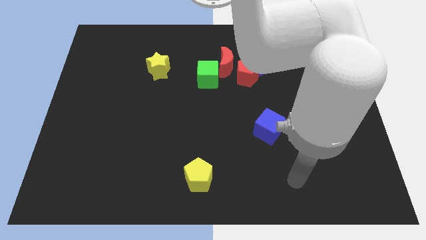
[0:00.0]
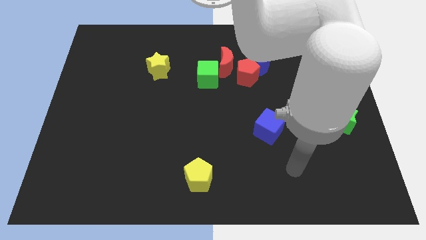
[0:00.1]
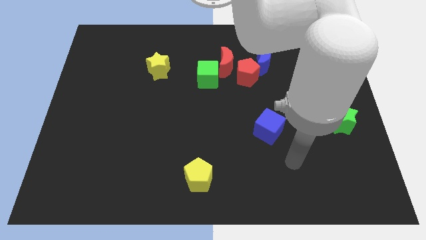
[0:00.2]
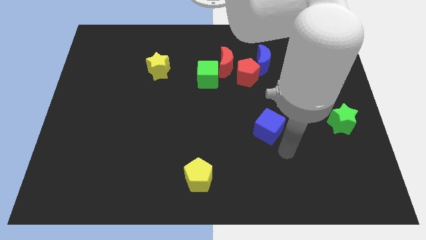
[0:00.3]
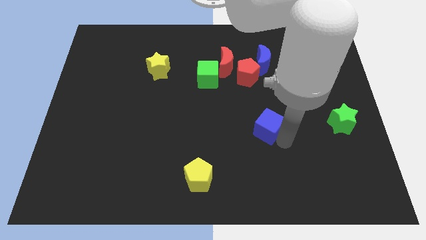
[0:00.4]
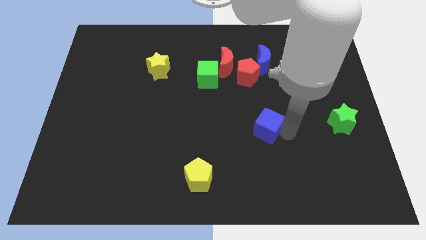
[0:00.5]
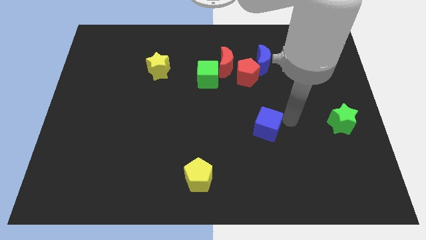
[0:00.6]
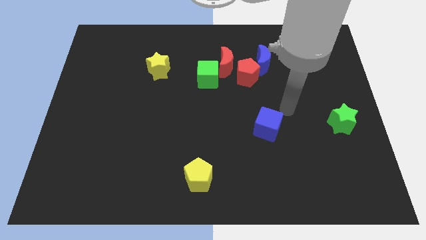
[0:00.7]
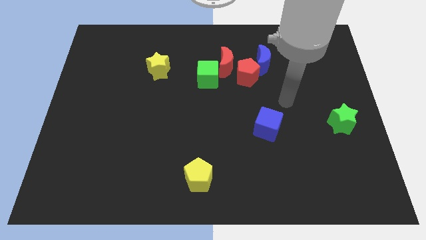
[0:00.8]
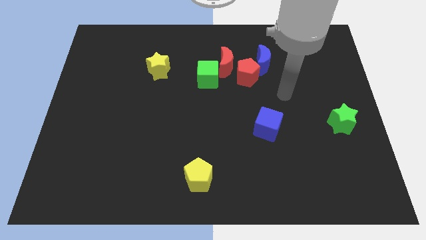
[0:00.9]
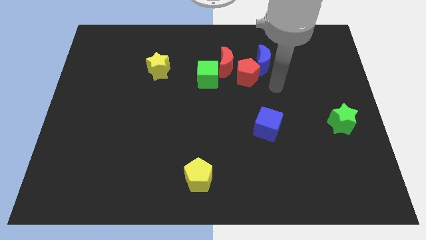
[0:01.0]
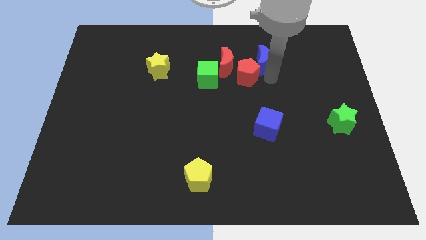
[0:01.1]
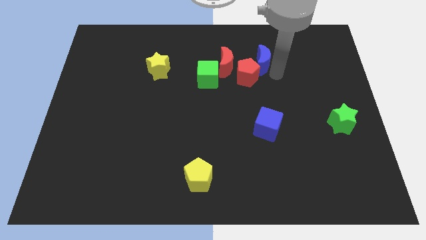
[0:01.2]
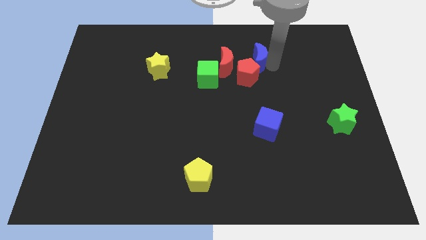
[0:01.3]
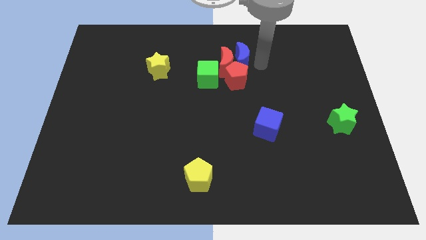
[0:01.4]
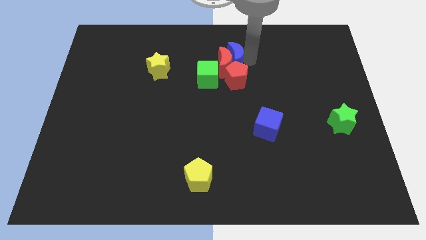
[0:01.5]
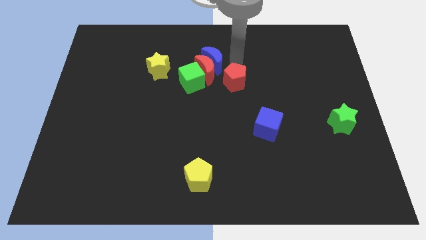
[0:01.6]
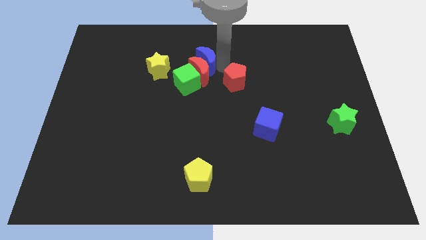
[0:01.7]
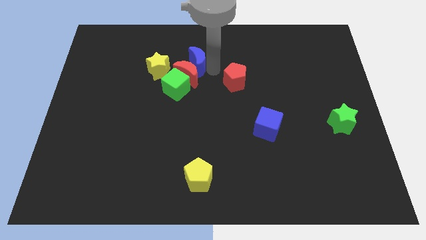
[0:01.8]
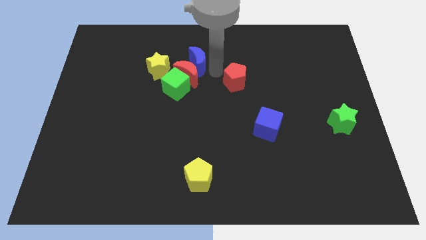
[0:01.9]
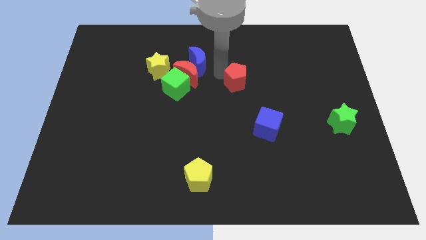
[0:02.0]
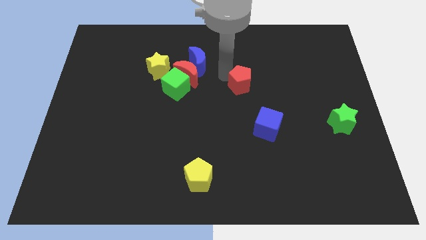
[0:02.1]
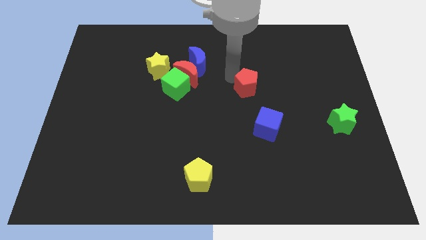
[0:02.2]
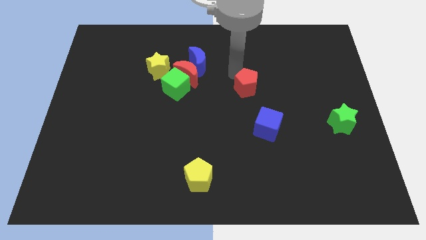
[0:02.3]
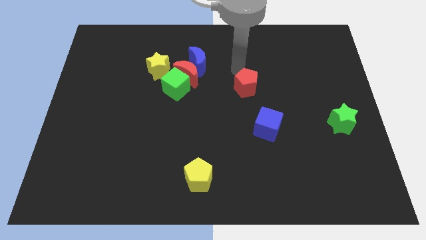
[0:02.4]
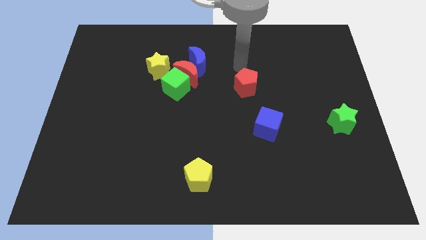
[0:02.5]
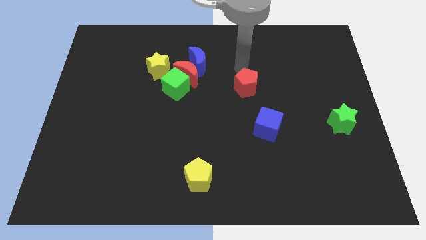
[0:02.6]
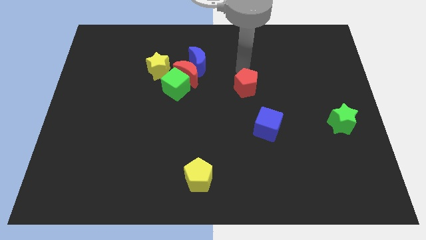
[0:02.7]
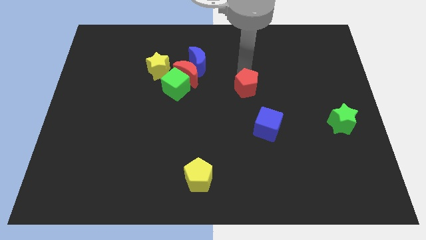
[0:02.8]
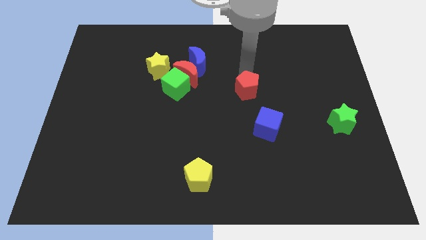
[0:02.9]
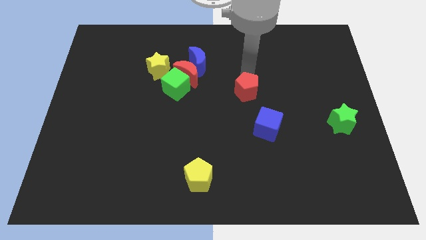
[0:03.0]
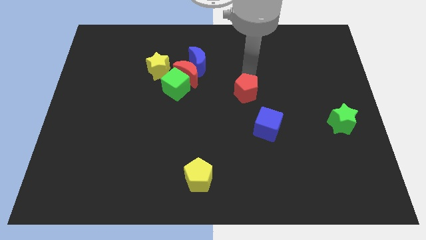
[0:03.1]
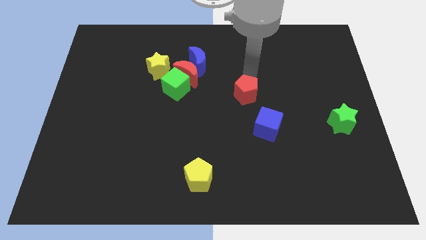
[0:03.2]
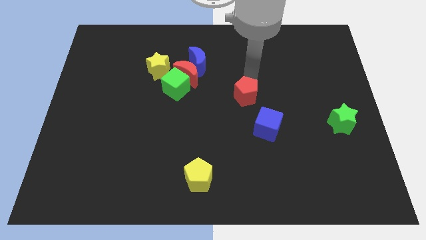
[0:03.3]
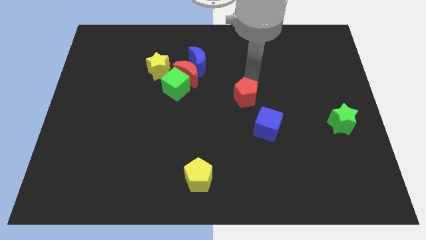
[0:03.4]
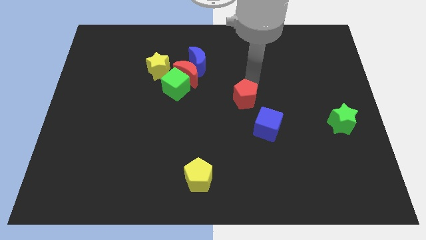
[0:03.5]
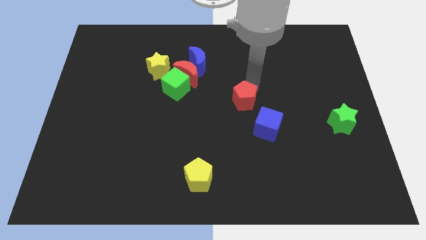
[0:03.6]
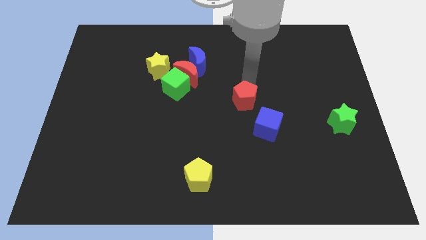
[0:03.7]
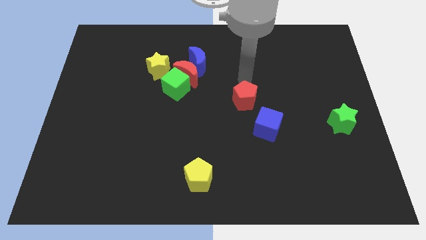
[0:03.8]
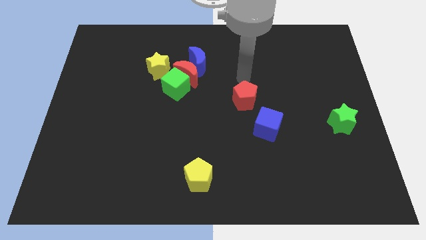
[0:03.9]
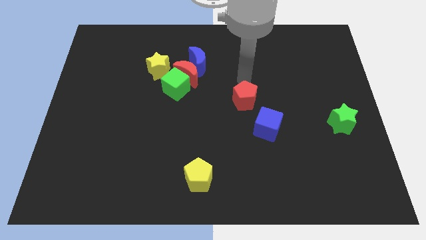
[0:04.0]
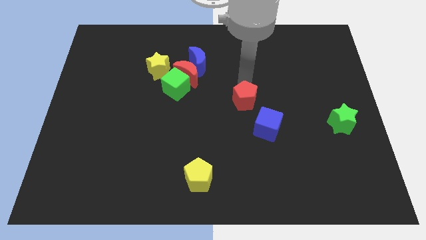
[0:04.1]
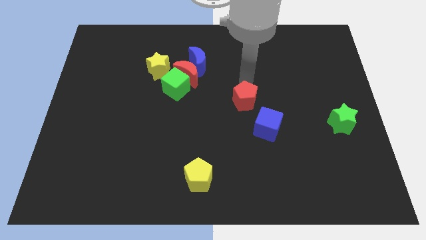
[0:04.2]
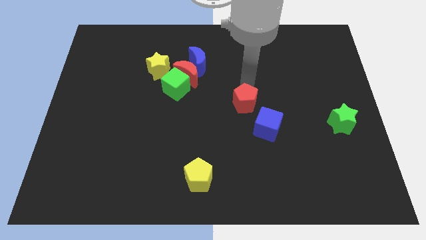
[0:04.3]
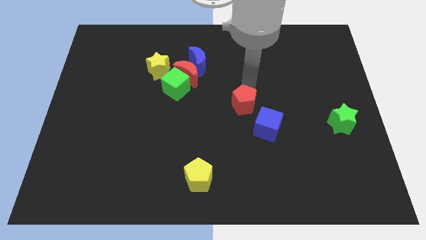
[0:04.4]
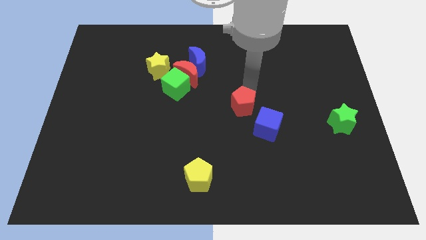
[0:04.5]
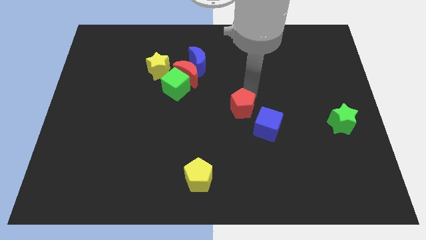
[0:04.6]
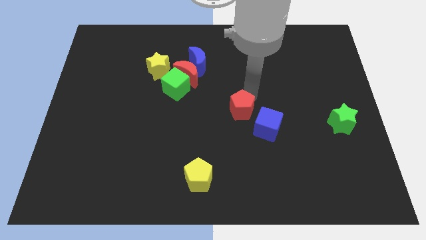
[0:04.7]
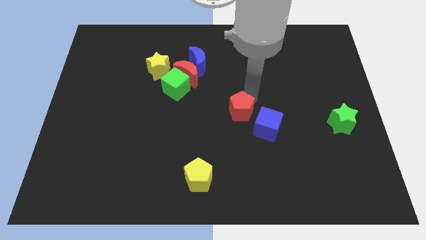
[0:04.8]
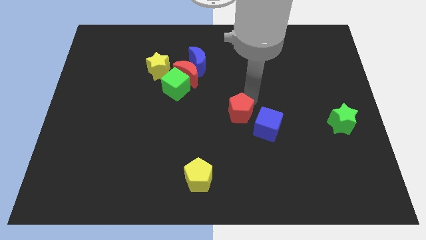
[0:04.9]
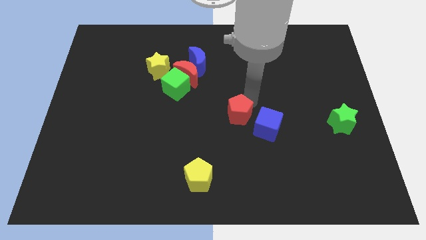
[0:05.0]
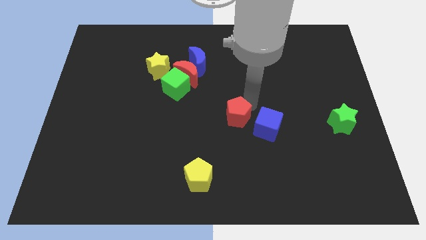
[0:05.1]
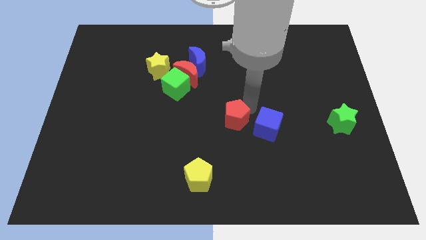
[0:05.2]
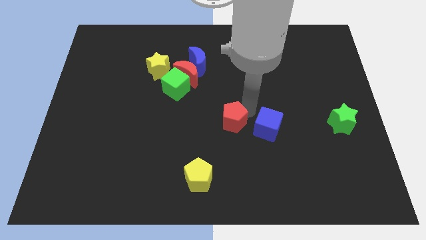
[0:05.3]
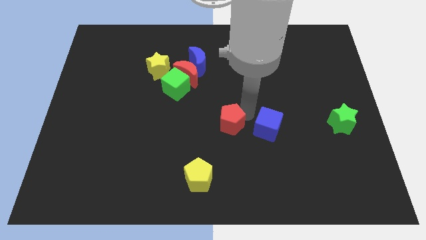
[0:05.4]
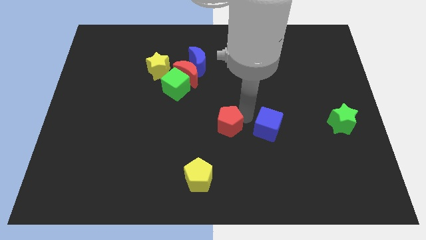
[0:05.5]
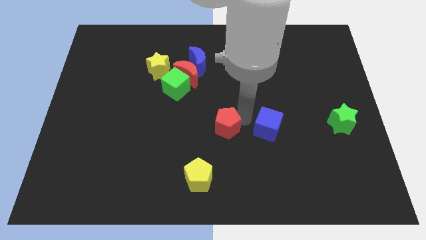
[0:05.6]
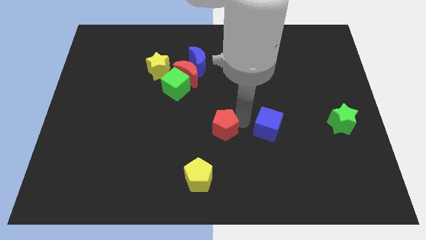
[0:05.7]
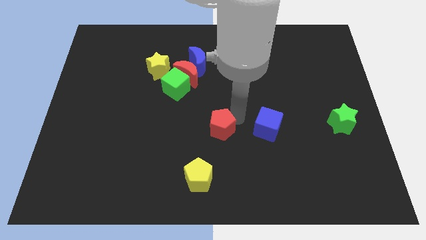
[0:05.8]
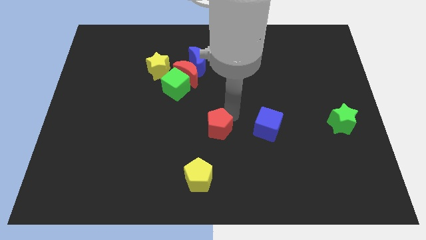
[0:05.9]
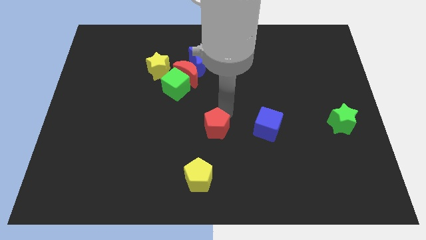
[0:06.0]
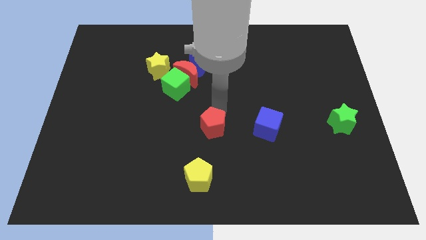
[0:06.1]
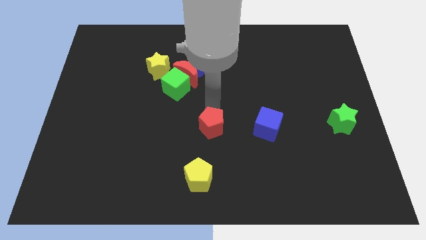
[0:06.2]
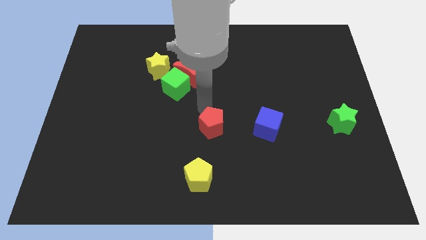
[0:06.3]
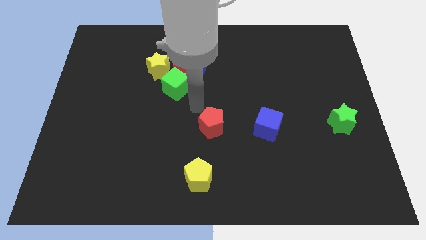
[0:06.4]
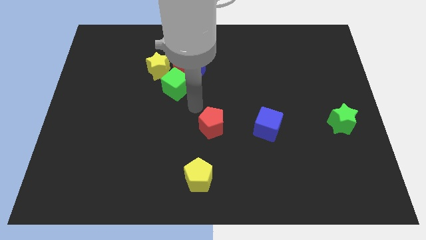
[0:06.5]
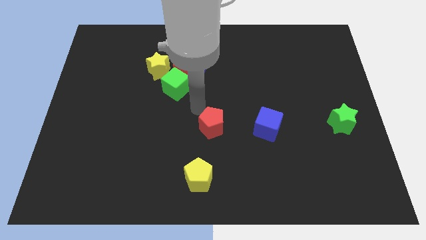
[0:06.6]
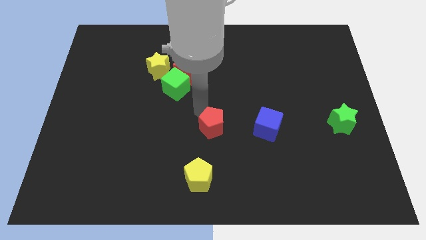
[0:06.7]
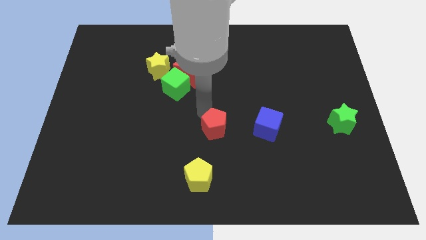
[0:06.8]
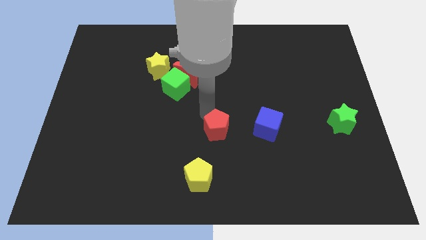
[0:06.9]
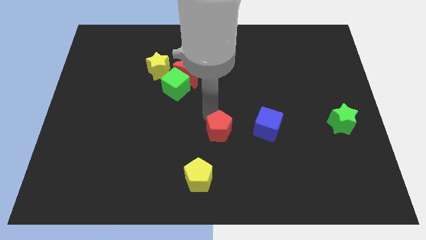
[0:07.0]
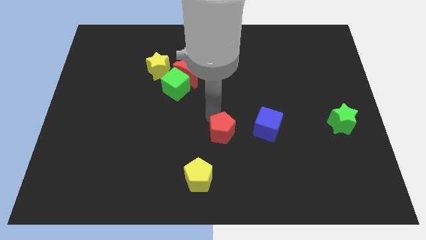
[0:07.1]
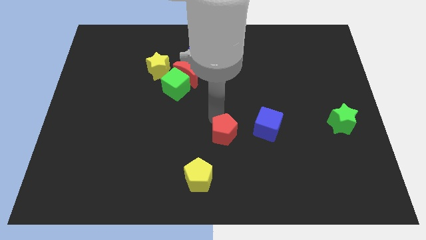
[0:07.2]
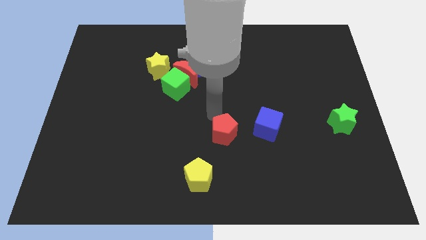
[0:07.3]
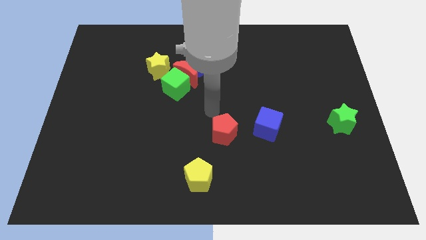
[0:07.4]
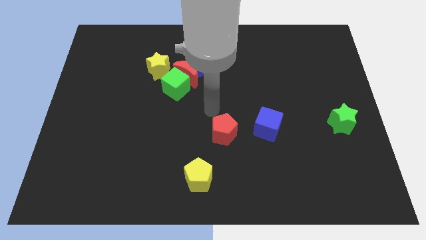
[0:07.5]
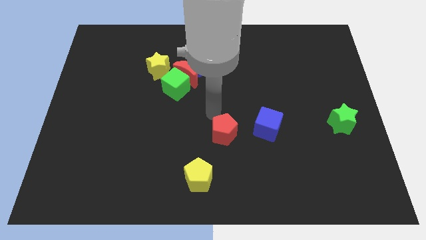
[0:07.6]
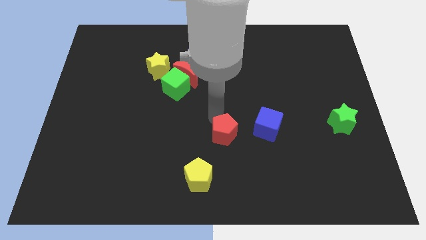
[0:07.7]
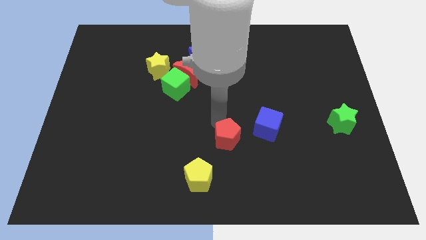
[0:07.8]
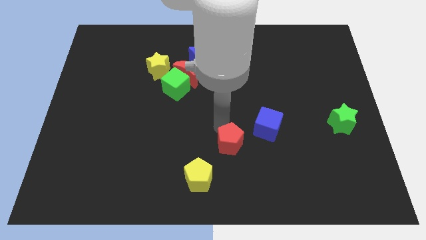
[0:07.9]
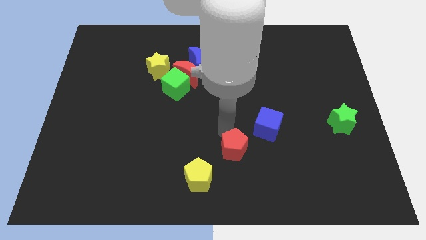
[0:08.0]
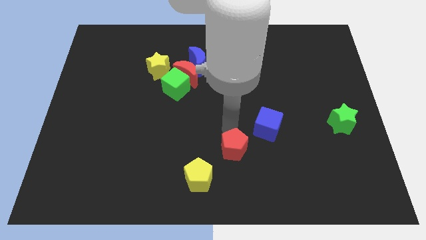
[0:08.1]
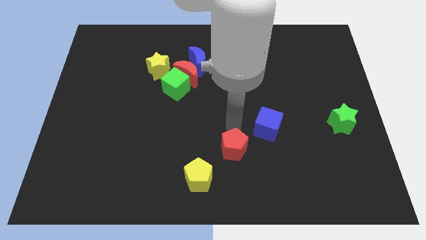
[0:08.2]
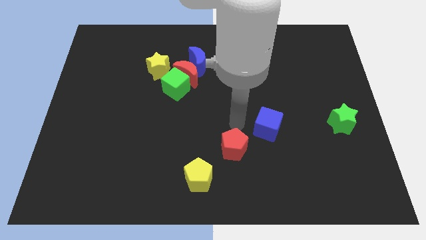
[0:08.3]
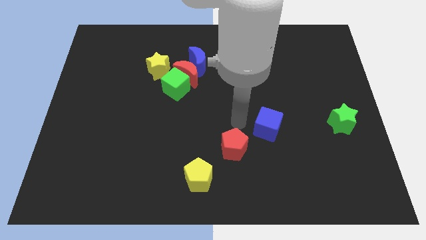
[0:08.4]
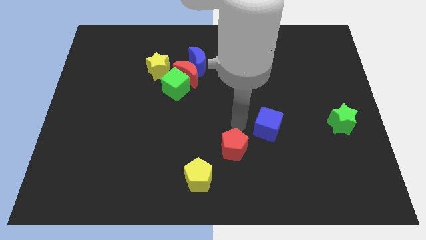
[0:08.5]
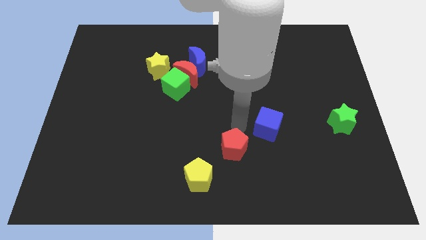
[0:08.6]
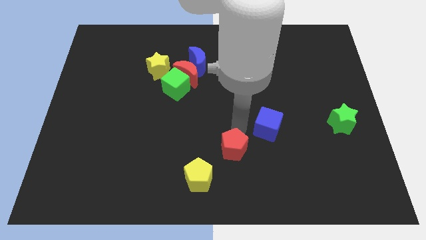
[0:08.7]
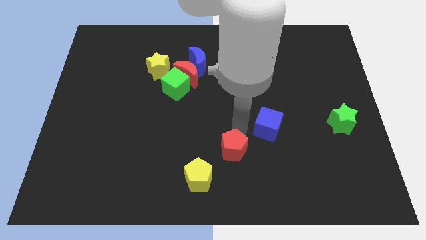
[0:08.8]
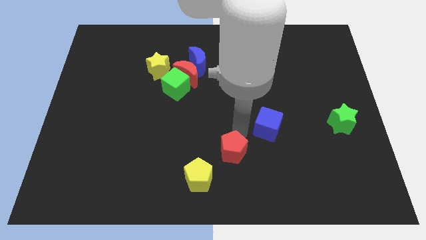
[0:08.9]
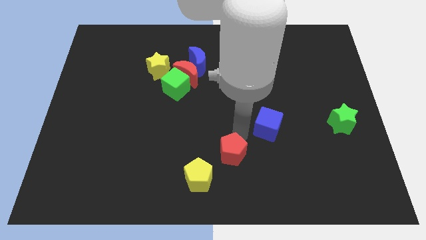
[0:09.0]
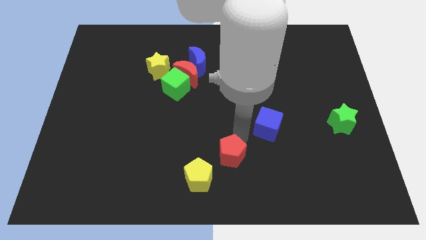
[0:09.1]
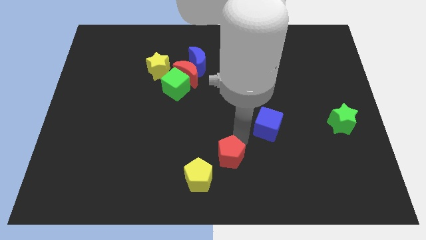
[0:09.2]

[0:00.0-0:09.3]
put the red pentagon to the bottom side
